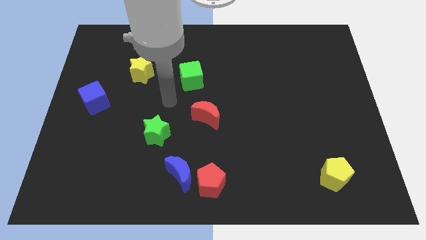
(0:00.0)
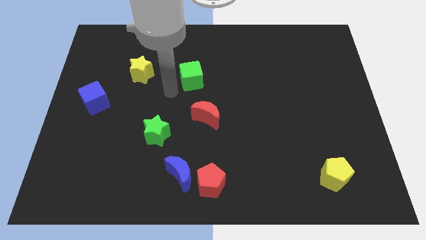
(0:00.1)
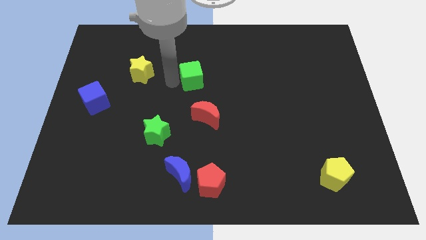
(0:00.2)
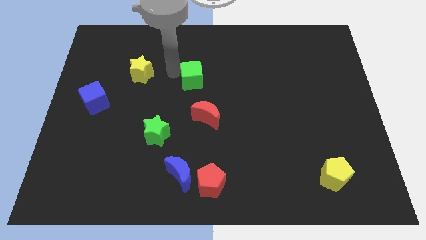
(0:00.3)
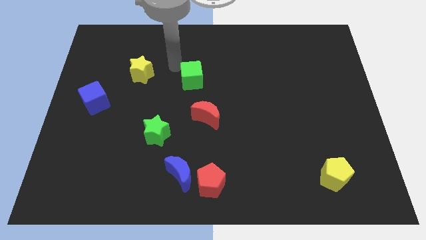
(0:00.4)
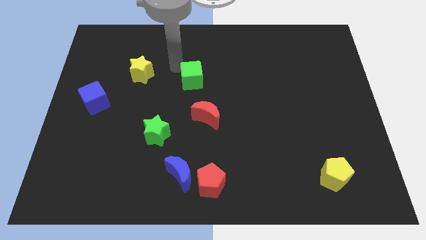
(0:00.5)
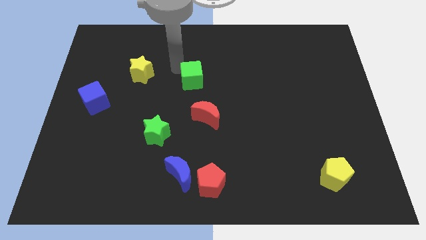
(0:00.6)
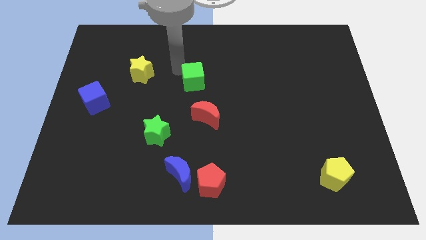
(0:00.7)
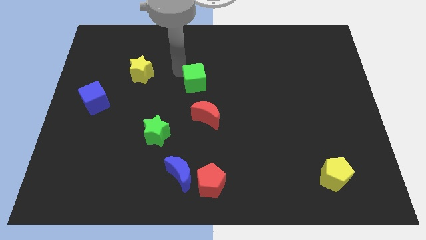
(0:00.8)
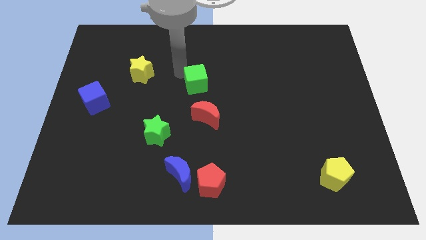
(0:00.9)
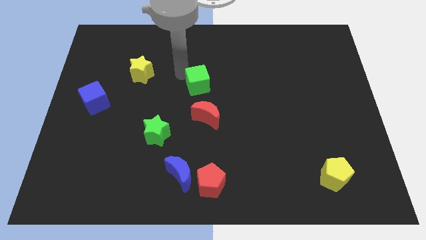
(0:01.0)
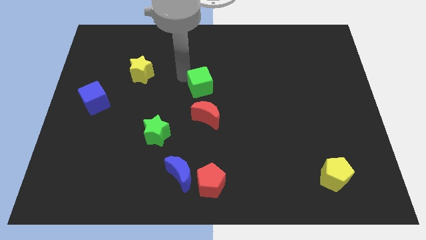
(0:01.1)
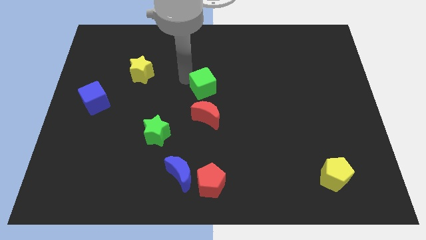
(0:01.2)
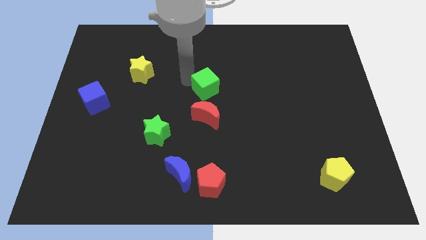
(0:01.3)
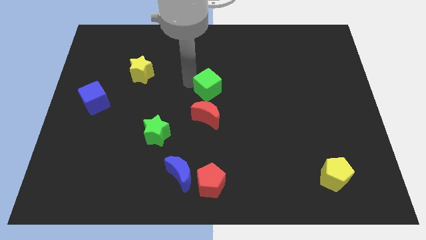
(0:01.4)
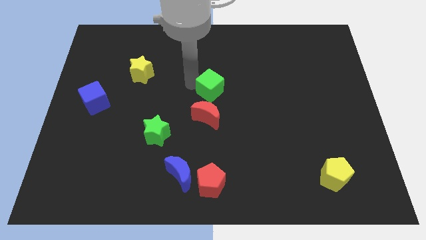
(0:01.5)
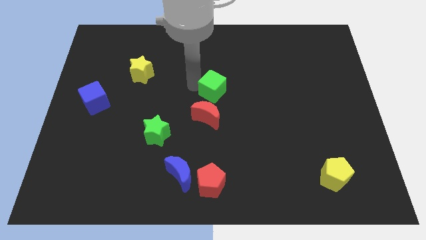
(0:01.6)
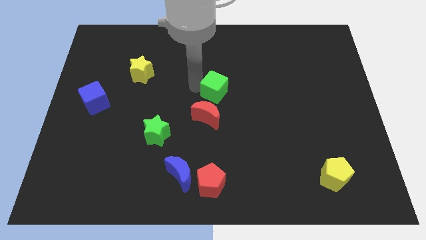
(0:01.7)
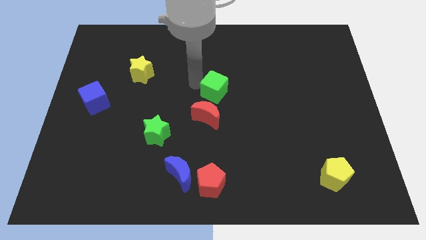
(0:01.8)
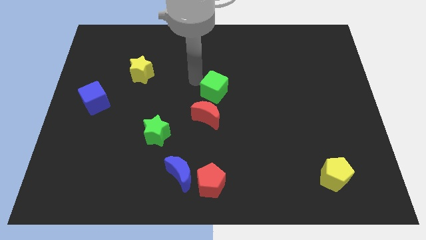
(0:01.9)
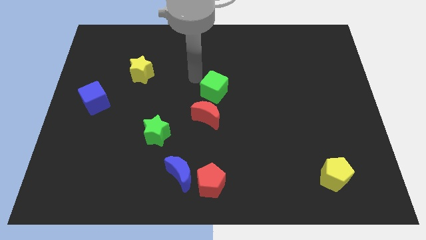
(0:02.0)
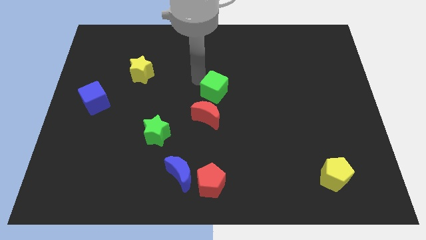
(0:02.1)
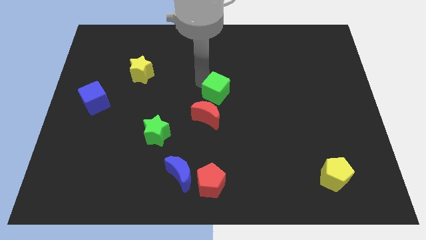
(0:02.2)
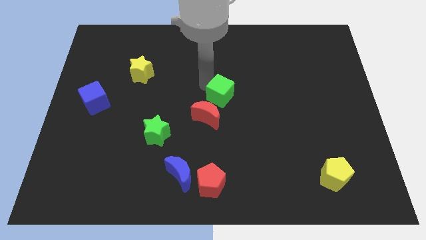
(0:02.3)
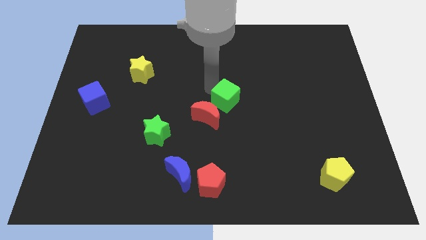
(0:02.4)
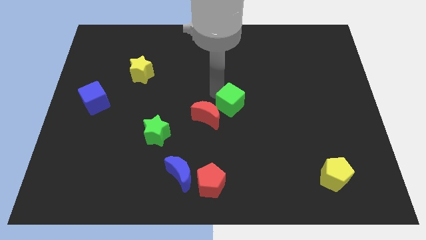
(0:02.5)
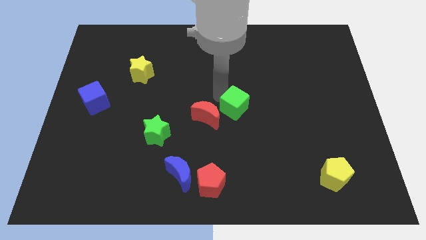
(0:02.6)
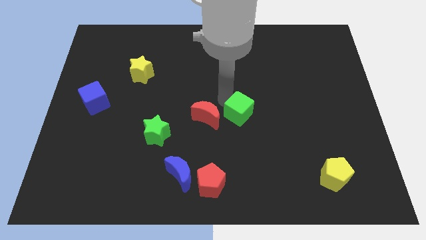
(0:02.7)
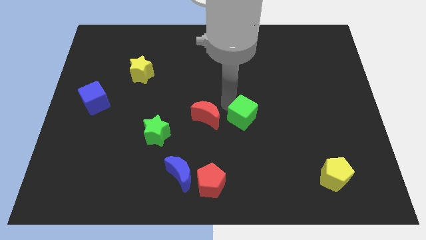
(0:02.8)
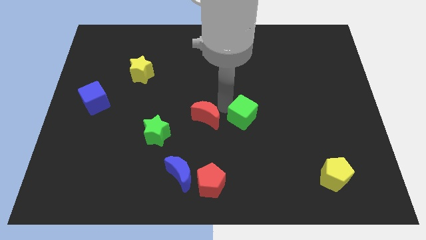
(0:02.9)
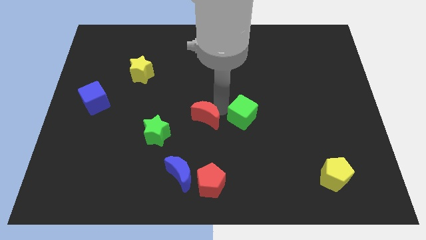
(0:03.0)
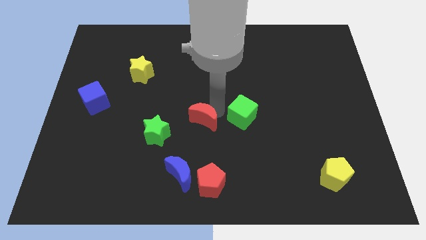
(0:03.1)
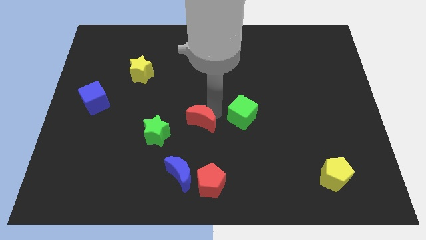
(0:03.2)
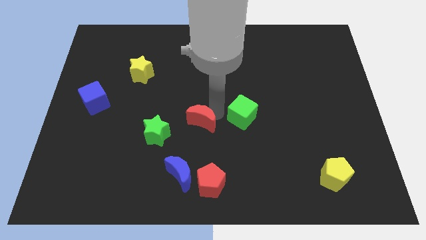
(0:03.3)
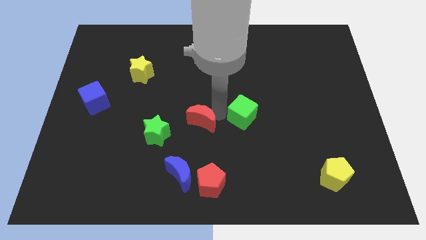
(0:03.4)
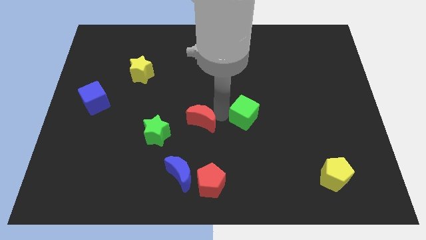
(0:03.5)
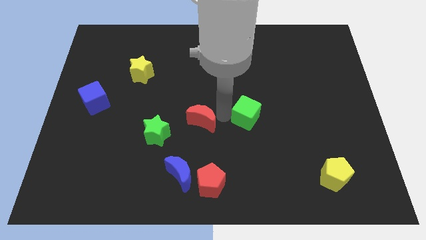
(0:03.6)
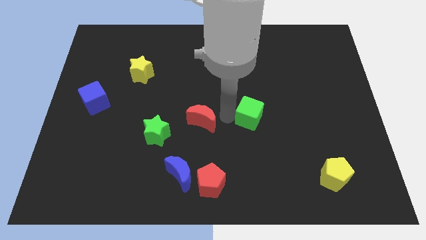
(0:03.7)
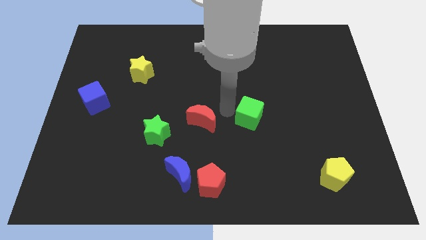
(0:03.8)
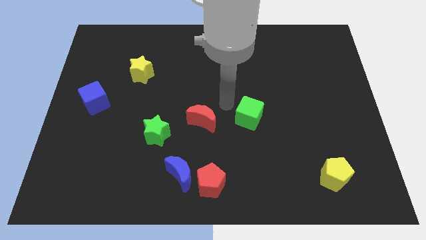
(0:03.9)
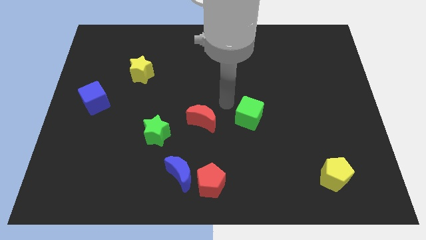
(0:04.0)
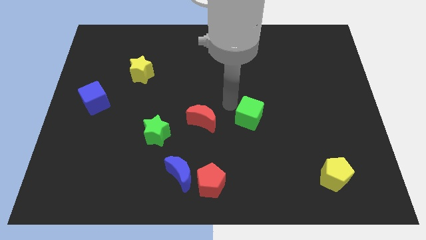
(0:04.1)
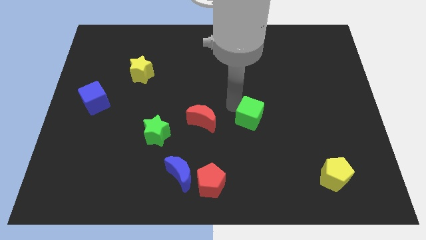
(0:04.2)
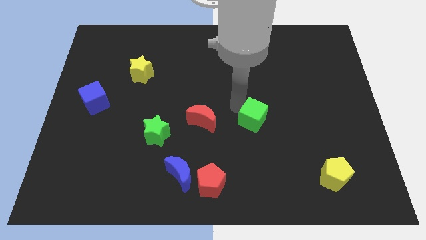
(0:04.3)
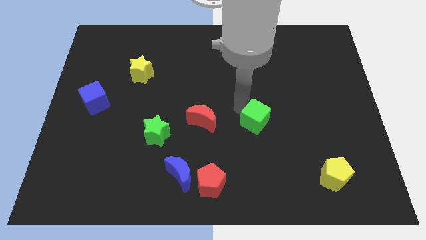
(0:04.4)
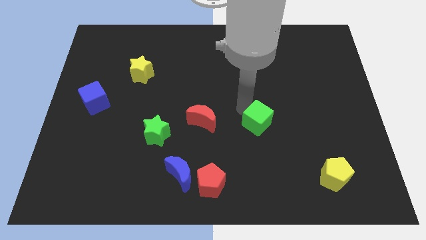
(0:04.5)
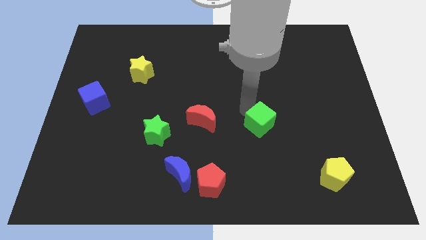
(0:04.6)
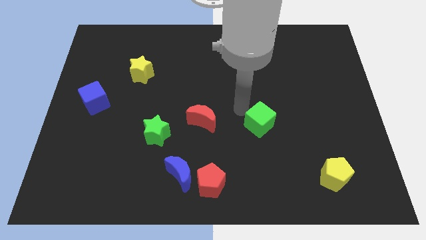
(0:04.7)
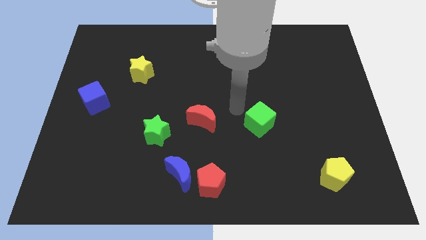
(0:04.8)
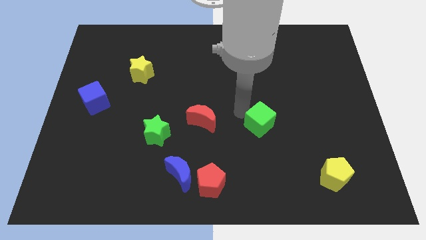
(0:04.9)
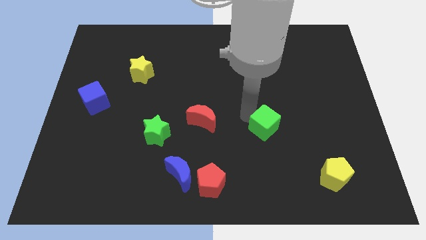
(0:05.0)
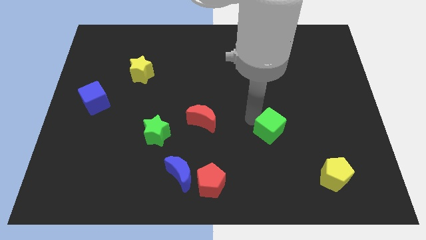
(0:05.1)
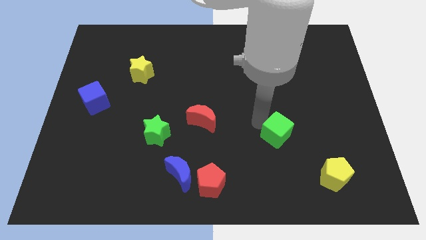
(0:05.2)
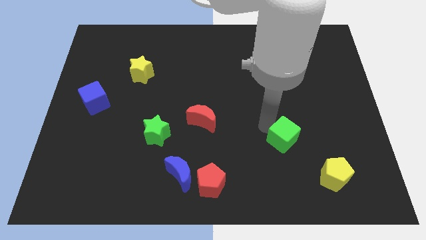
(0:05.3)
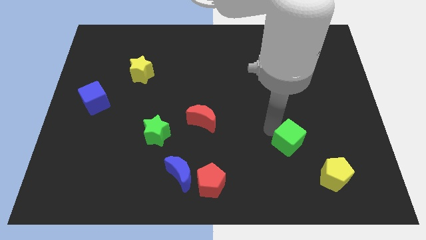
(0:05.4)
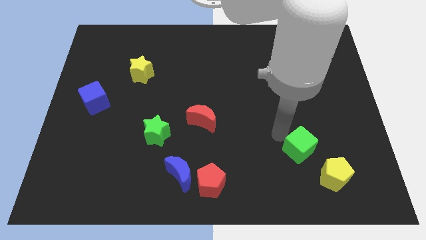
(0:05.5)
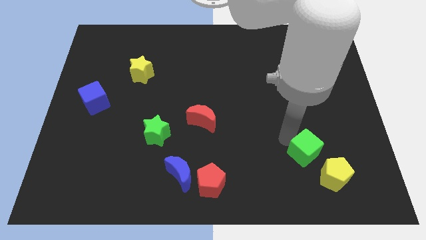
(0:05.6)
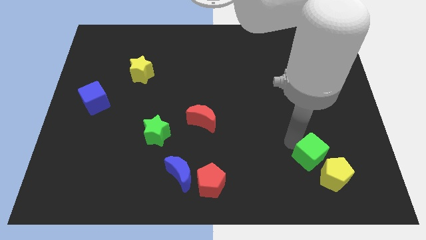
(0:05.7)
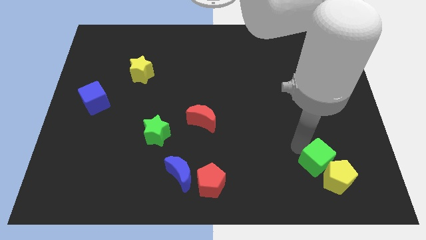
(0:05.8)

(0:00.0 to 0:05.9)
push the green cube close to the yellow pentagon

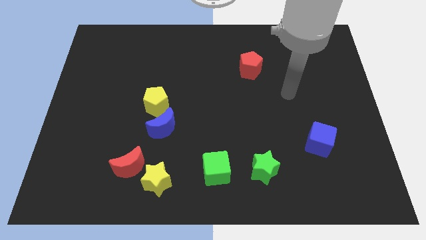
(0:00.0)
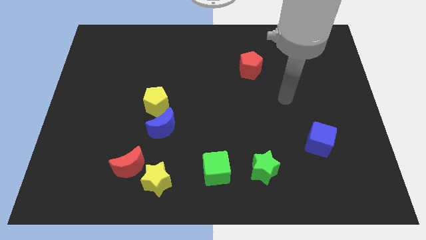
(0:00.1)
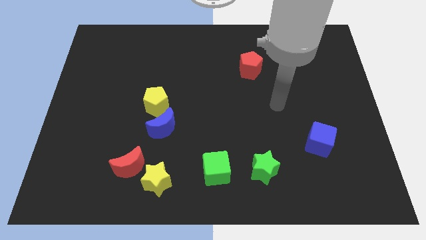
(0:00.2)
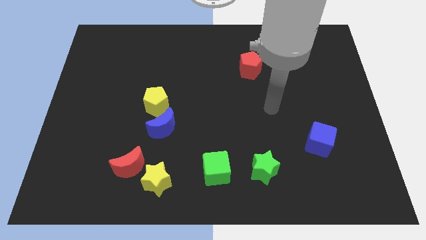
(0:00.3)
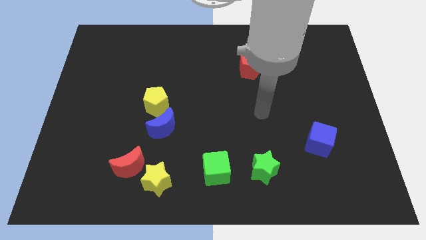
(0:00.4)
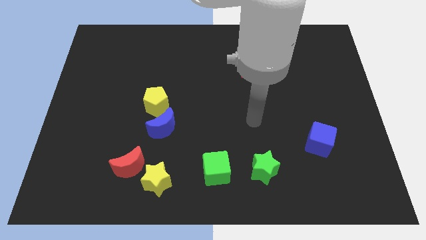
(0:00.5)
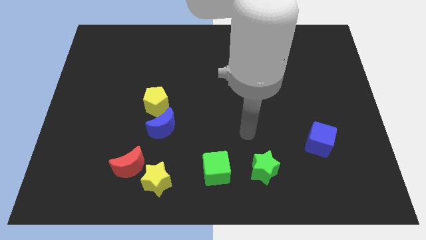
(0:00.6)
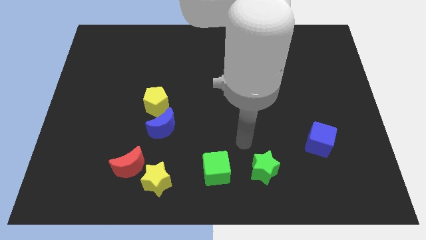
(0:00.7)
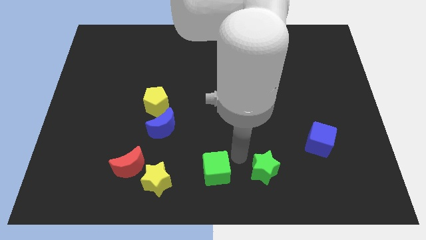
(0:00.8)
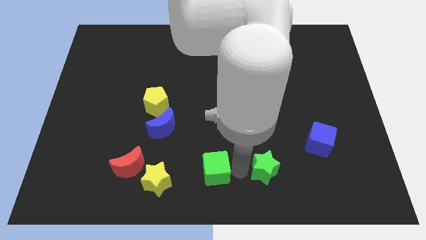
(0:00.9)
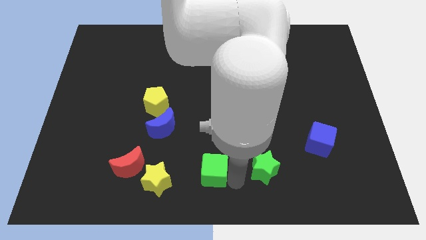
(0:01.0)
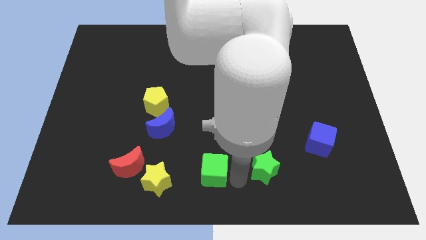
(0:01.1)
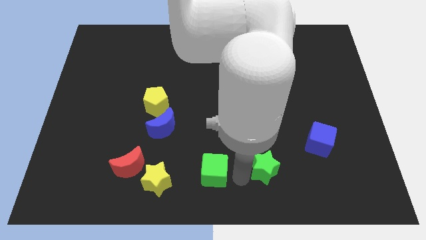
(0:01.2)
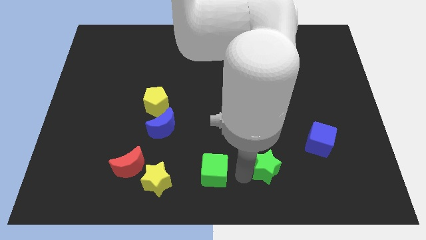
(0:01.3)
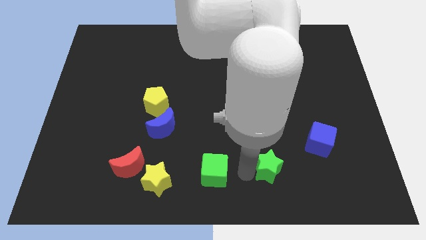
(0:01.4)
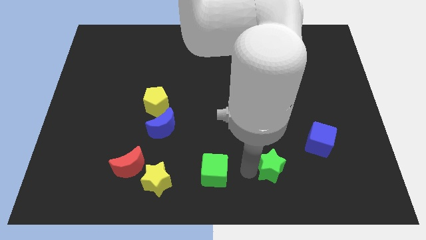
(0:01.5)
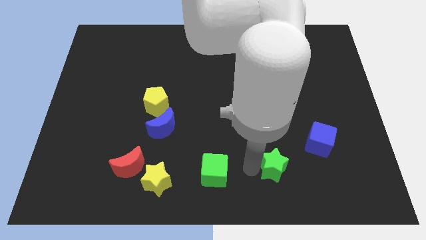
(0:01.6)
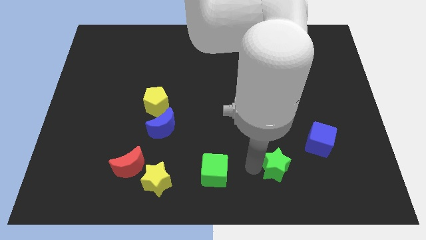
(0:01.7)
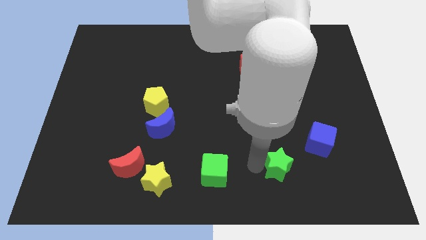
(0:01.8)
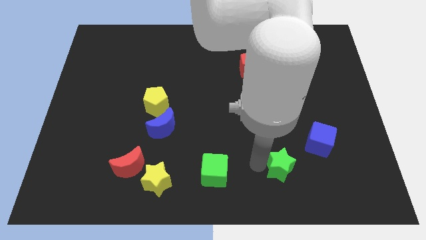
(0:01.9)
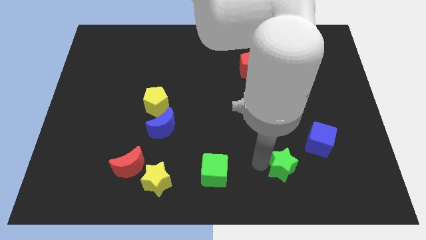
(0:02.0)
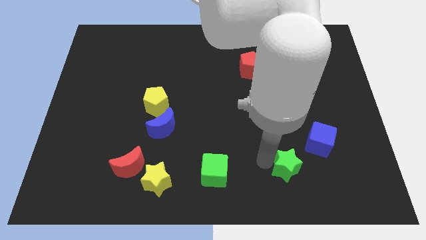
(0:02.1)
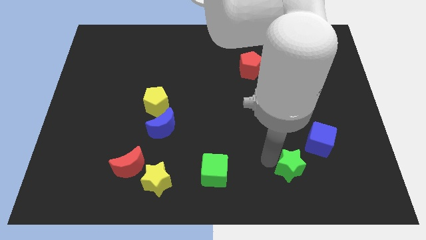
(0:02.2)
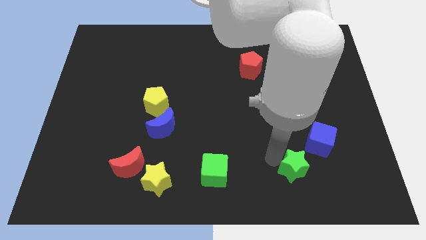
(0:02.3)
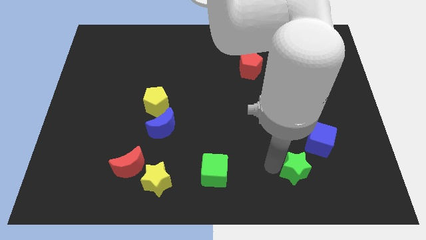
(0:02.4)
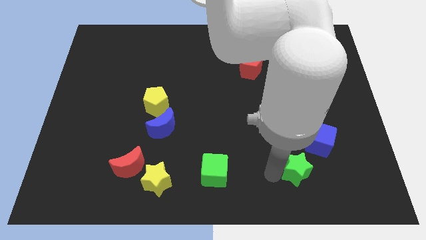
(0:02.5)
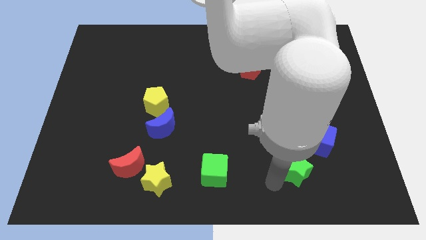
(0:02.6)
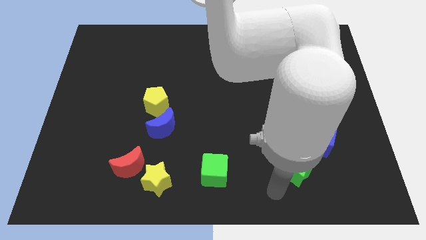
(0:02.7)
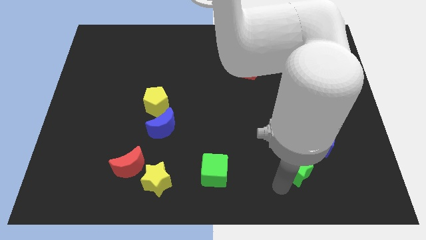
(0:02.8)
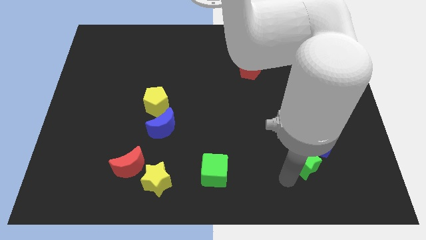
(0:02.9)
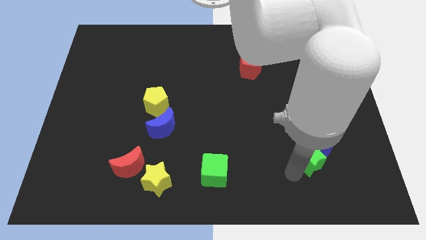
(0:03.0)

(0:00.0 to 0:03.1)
slide the green star towards the blue cube
